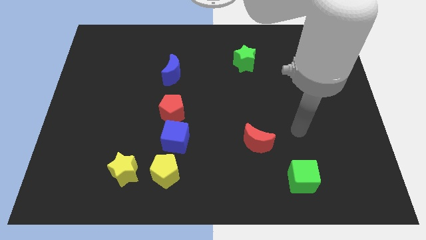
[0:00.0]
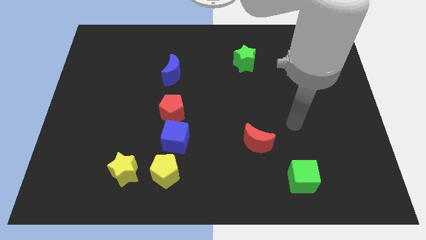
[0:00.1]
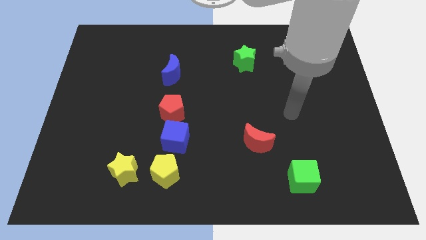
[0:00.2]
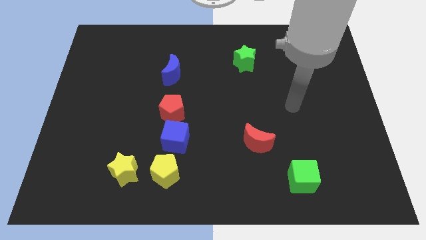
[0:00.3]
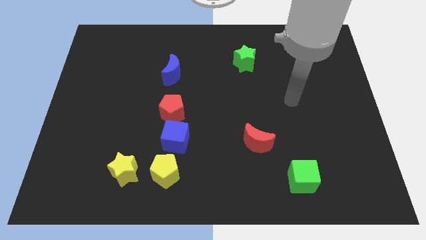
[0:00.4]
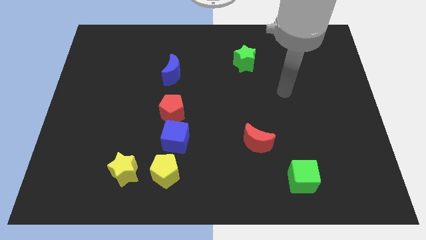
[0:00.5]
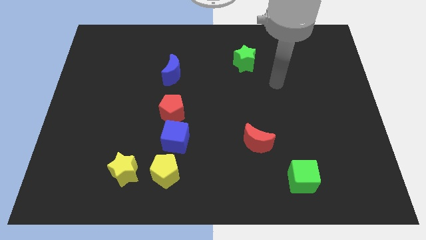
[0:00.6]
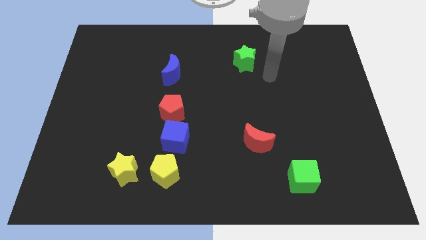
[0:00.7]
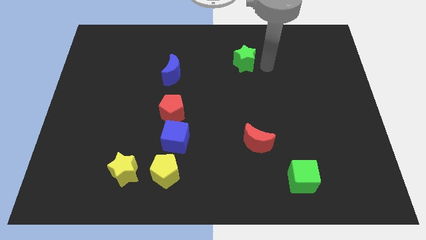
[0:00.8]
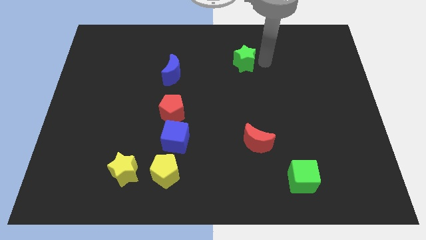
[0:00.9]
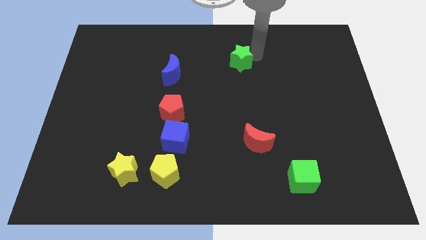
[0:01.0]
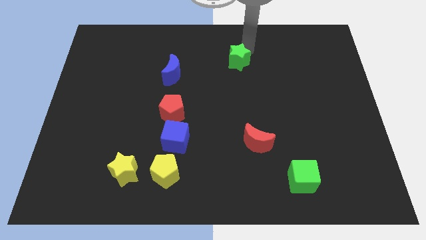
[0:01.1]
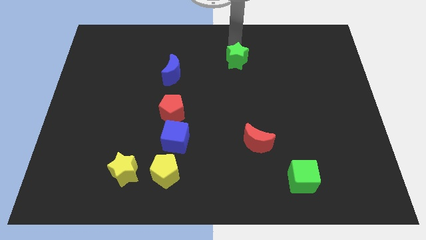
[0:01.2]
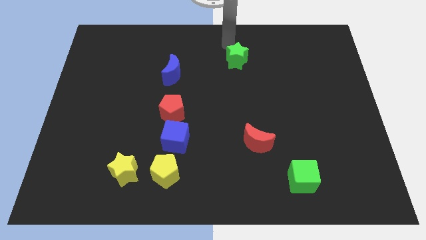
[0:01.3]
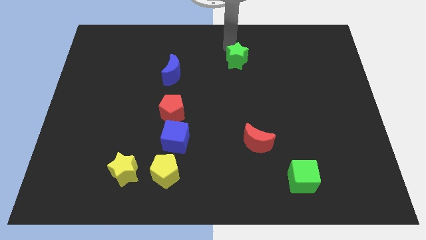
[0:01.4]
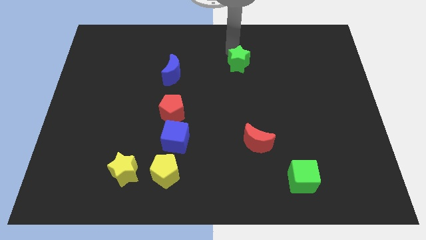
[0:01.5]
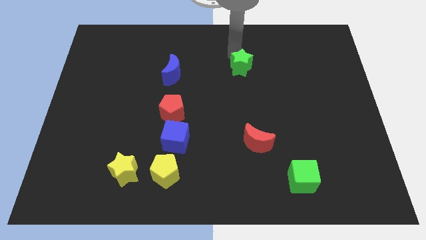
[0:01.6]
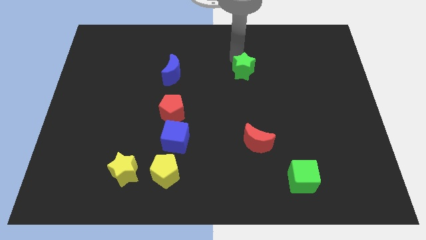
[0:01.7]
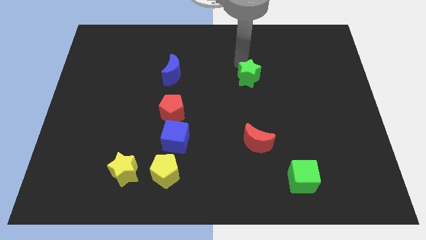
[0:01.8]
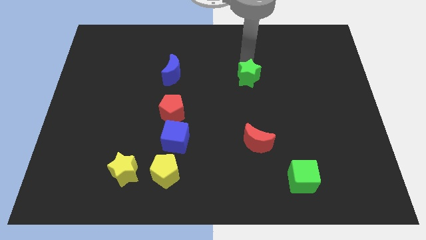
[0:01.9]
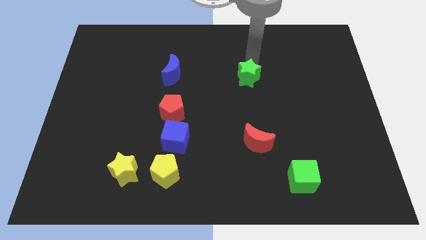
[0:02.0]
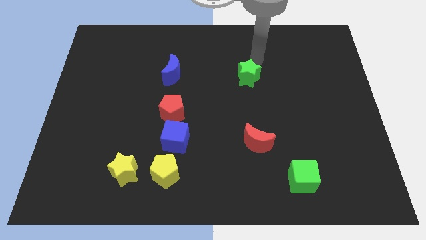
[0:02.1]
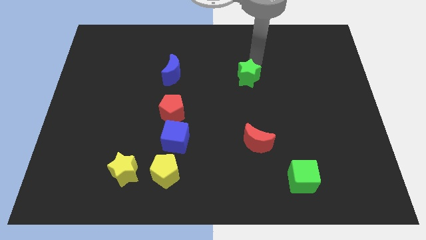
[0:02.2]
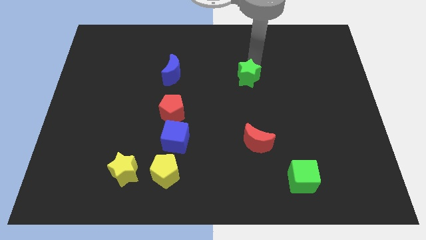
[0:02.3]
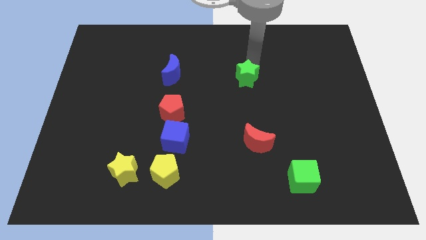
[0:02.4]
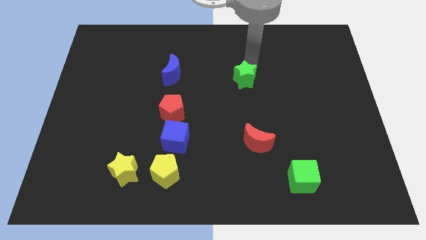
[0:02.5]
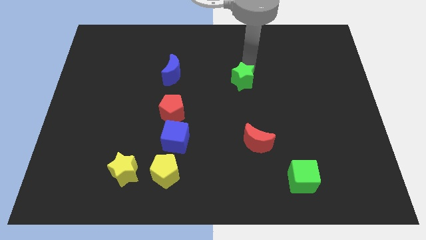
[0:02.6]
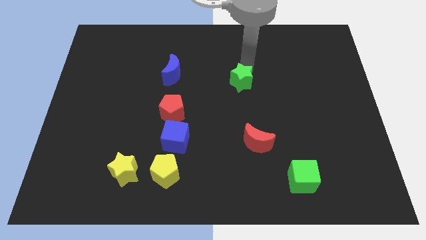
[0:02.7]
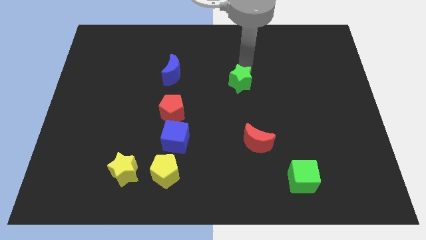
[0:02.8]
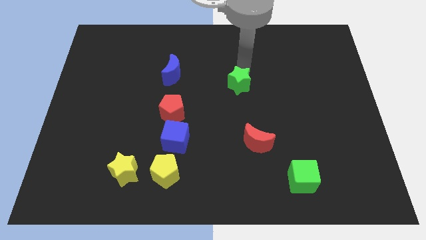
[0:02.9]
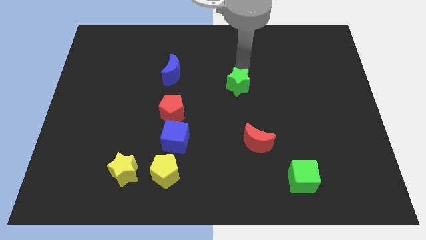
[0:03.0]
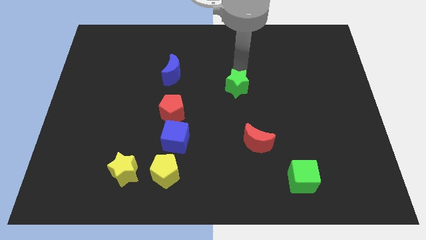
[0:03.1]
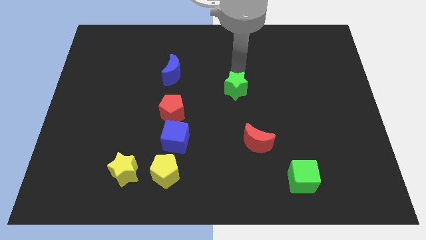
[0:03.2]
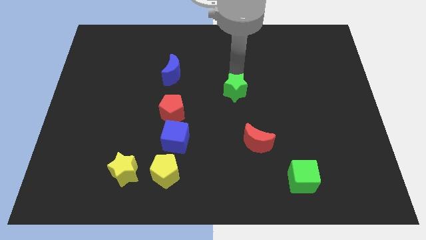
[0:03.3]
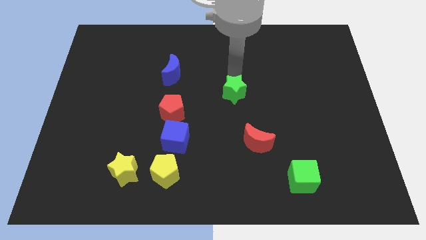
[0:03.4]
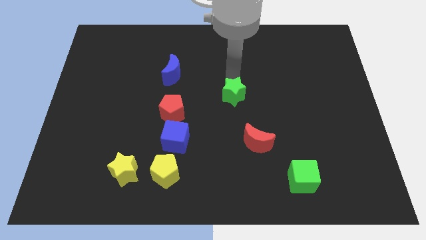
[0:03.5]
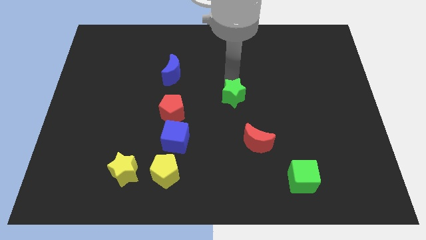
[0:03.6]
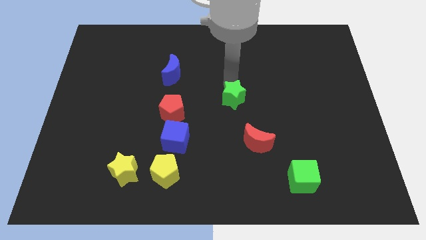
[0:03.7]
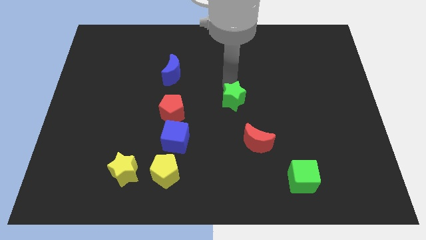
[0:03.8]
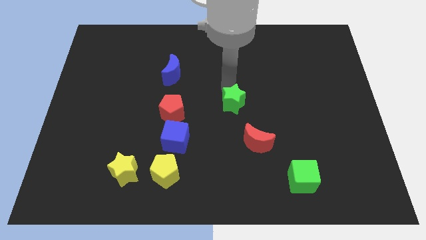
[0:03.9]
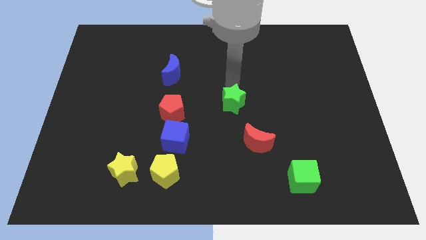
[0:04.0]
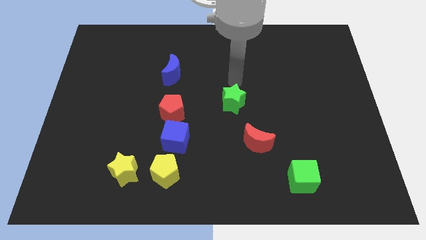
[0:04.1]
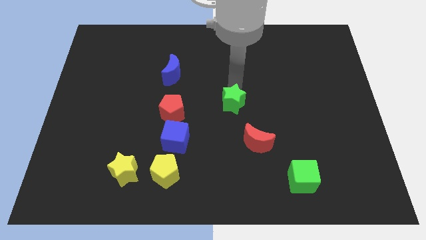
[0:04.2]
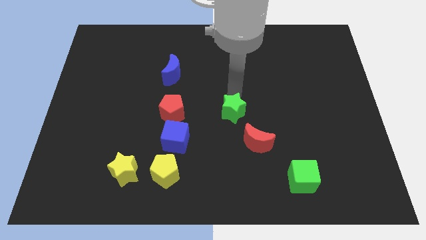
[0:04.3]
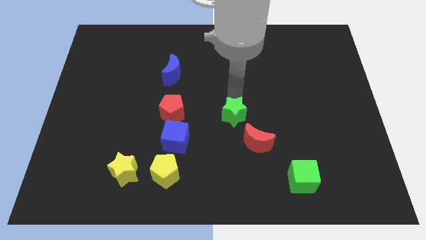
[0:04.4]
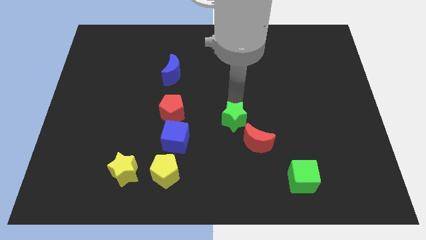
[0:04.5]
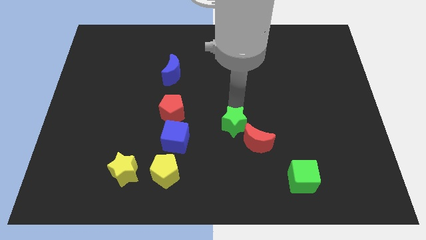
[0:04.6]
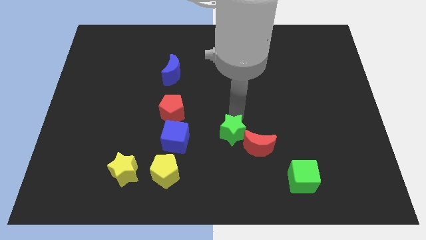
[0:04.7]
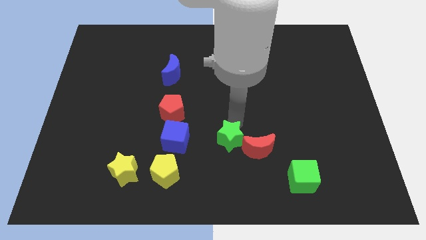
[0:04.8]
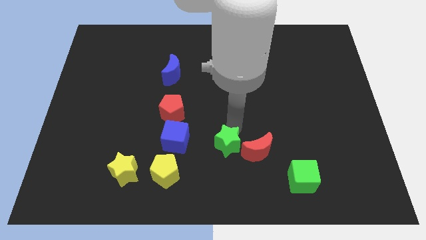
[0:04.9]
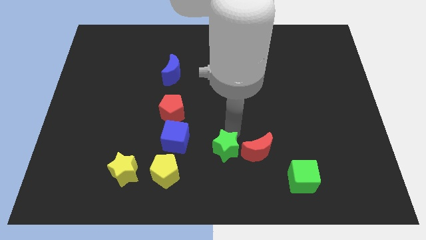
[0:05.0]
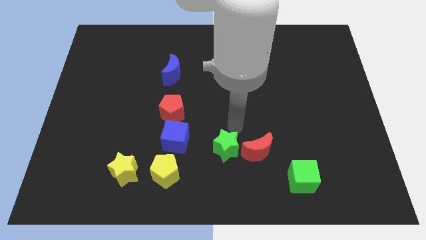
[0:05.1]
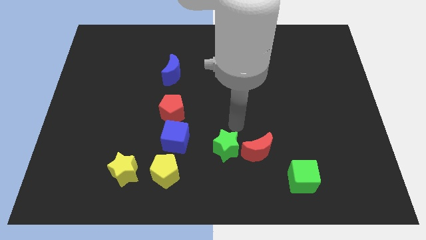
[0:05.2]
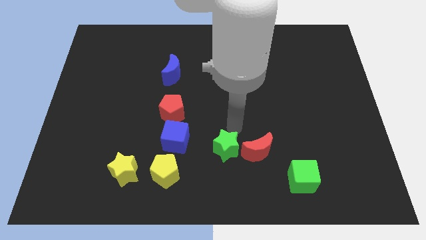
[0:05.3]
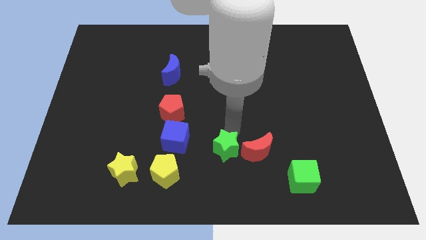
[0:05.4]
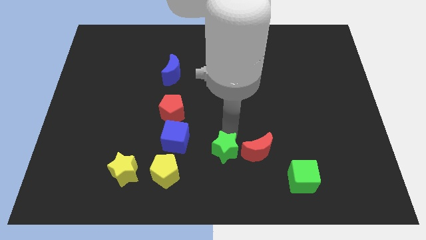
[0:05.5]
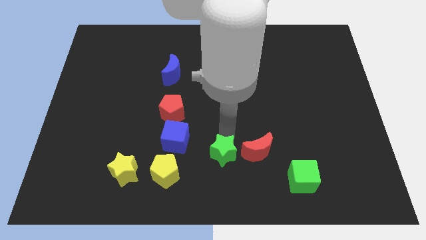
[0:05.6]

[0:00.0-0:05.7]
slide the green star to the bottom

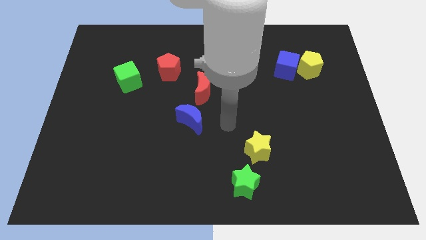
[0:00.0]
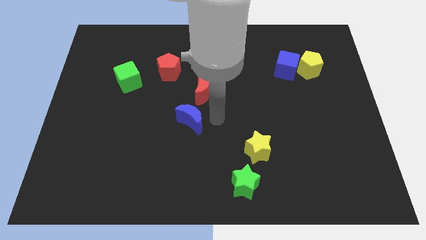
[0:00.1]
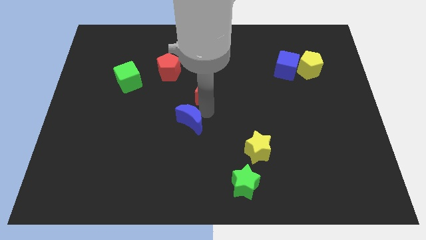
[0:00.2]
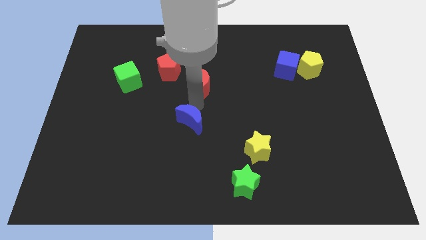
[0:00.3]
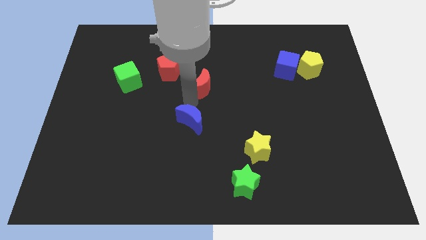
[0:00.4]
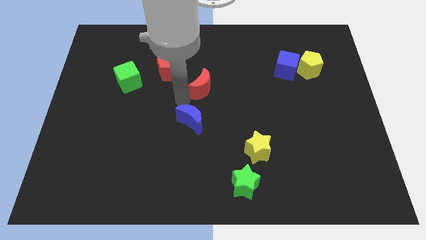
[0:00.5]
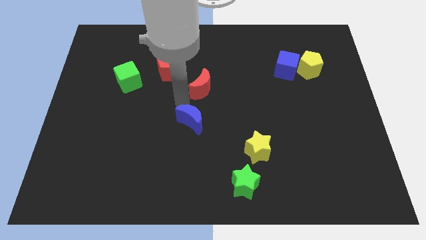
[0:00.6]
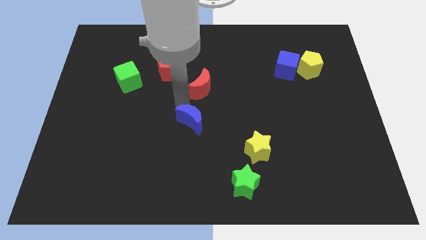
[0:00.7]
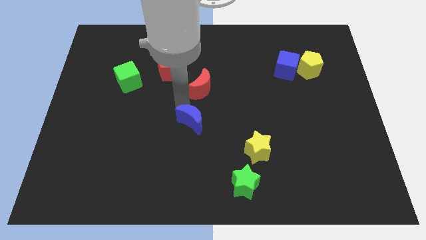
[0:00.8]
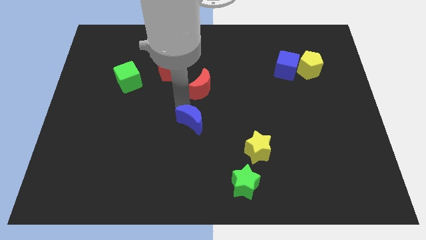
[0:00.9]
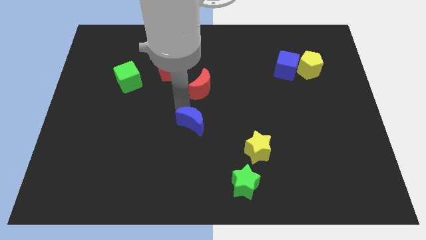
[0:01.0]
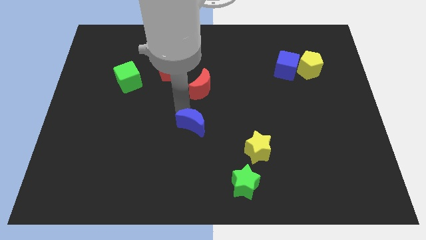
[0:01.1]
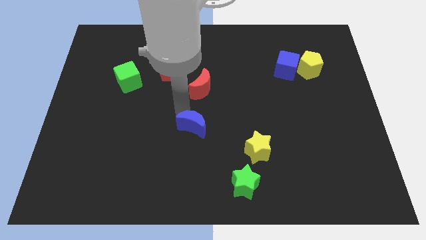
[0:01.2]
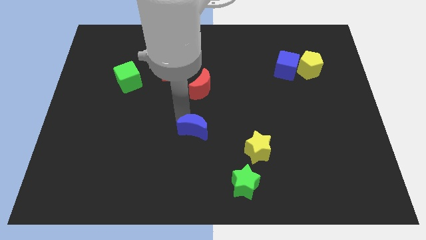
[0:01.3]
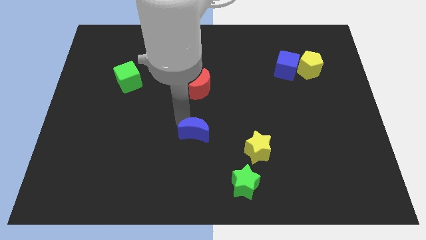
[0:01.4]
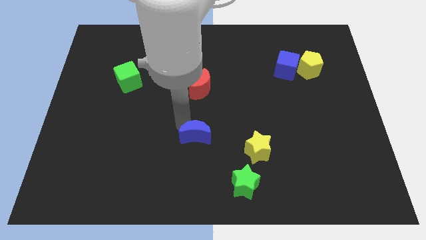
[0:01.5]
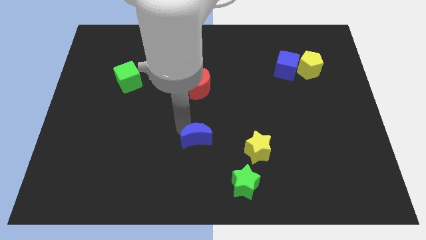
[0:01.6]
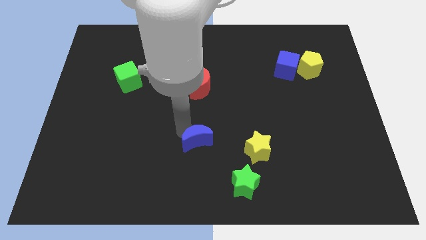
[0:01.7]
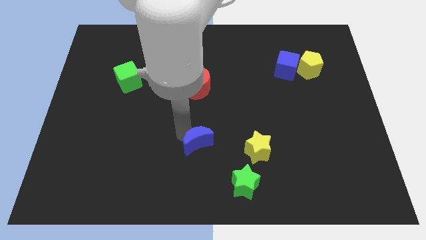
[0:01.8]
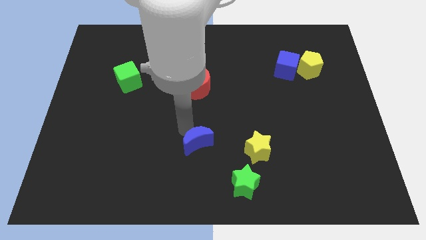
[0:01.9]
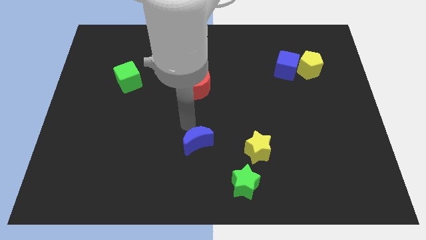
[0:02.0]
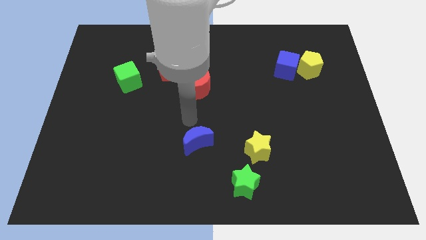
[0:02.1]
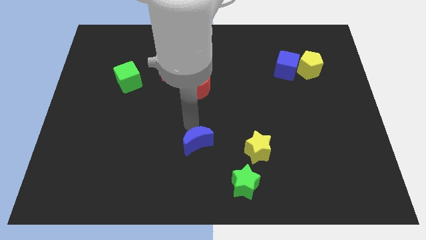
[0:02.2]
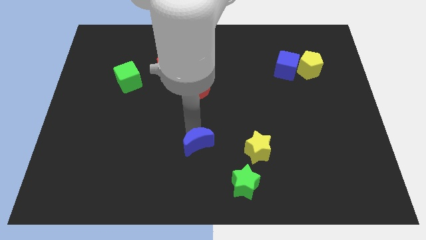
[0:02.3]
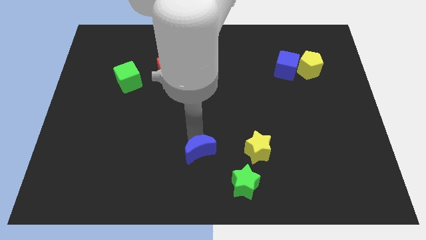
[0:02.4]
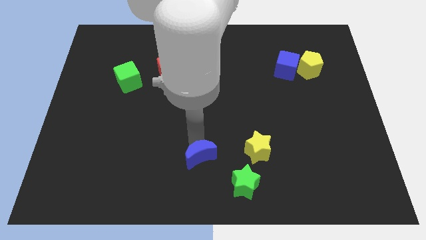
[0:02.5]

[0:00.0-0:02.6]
slide the blue moon to the bottom side
